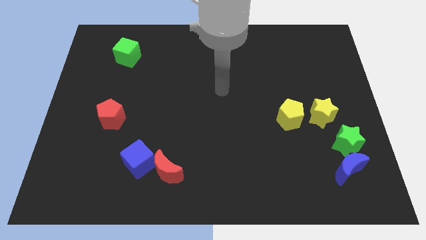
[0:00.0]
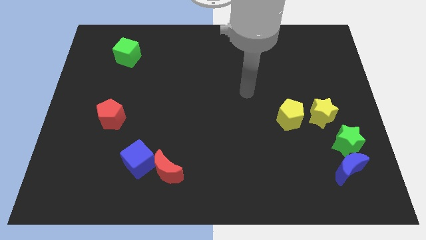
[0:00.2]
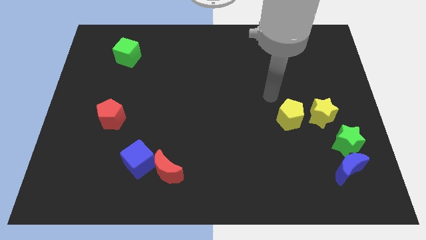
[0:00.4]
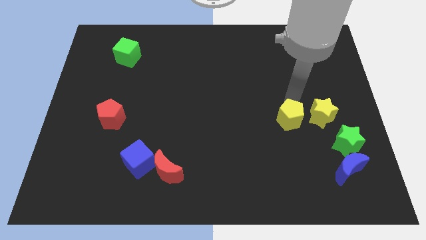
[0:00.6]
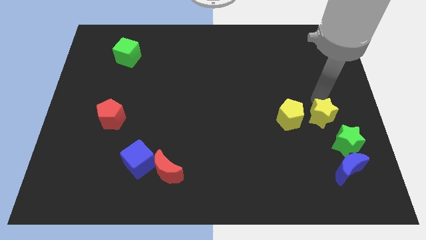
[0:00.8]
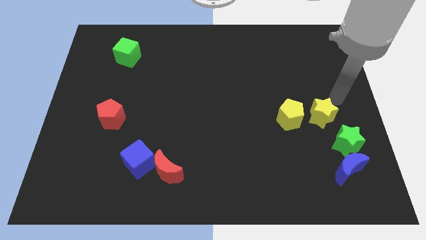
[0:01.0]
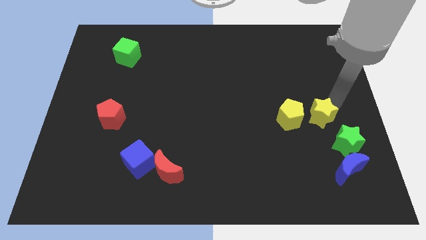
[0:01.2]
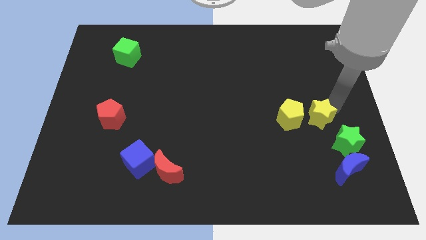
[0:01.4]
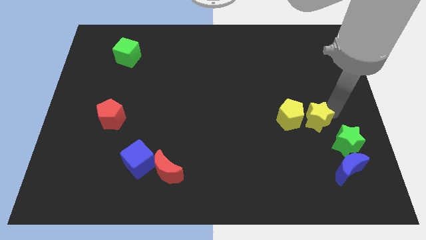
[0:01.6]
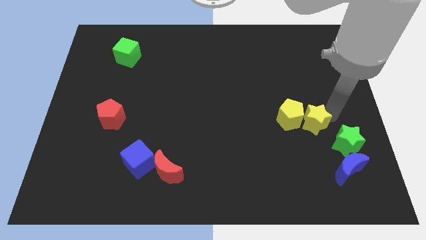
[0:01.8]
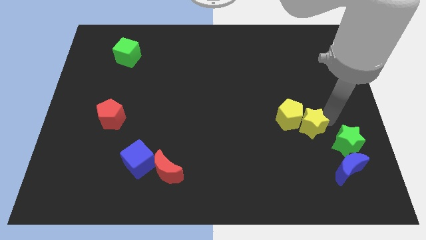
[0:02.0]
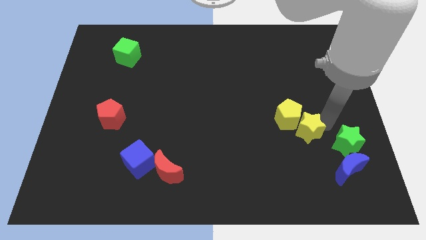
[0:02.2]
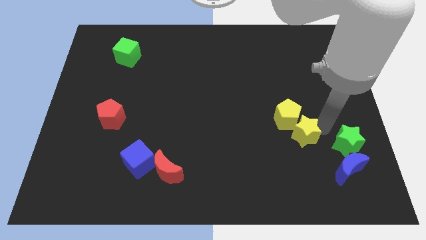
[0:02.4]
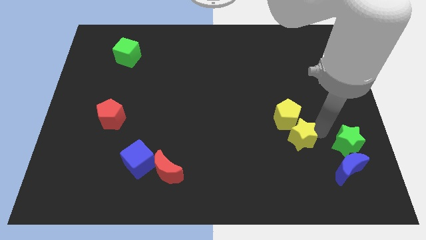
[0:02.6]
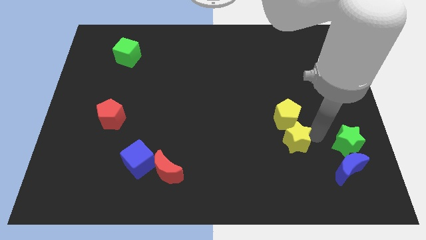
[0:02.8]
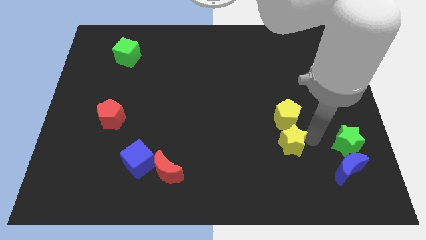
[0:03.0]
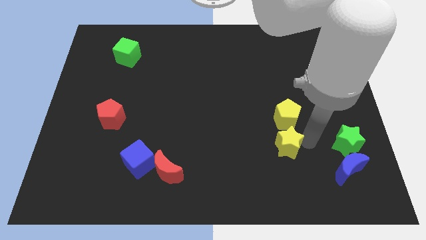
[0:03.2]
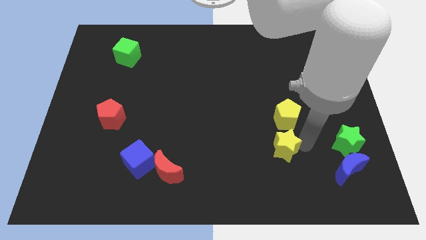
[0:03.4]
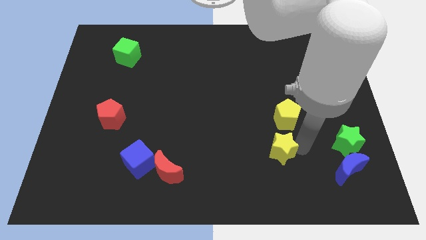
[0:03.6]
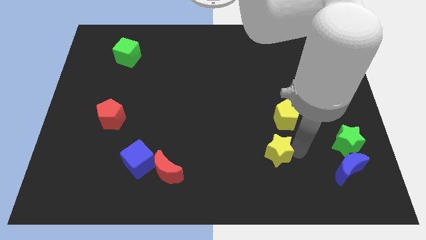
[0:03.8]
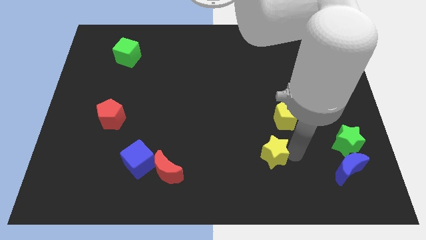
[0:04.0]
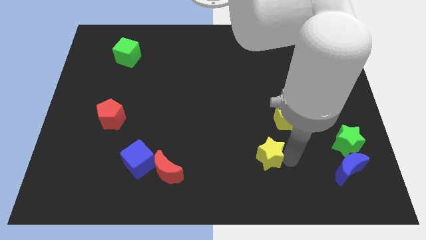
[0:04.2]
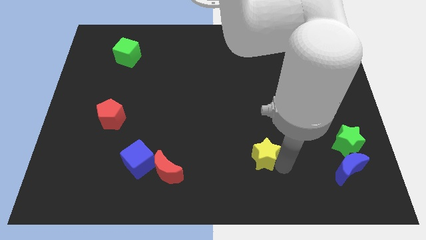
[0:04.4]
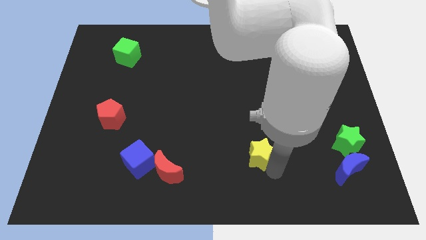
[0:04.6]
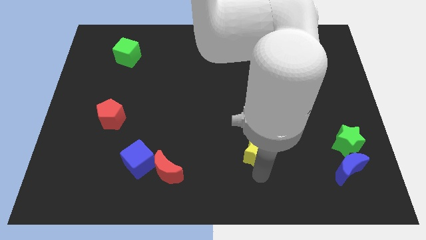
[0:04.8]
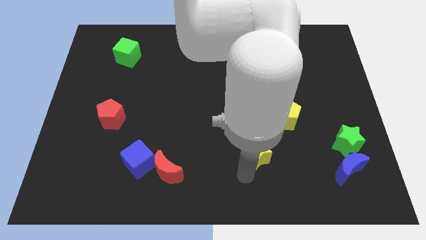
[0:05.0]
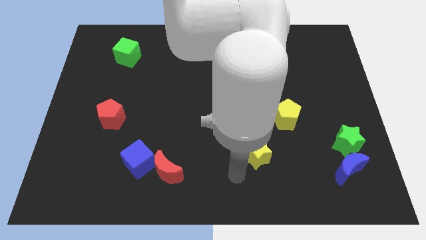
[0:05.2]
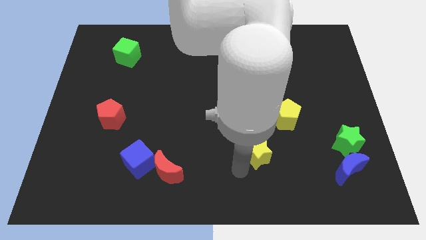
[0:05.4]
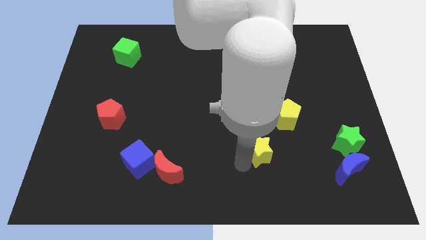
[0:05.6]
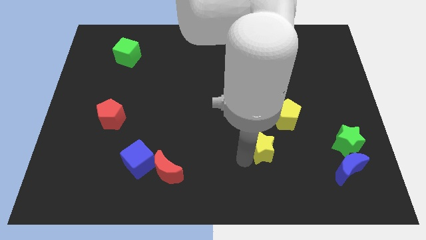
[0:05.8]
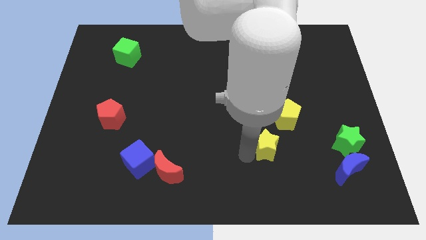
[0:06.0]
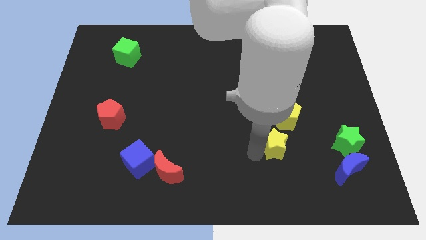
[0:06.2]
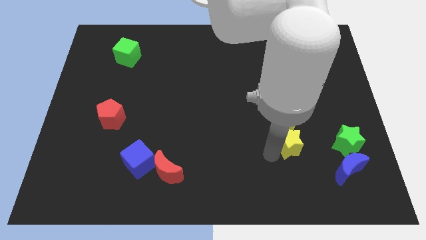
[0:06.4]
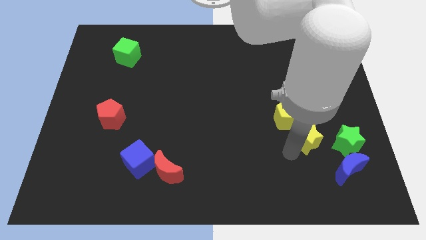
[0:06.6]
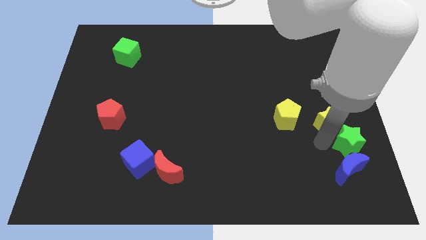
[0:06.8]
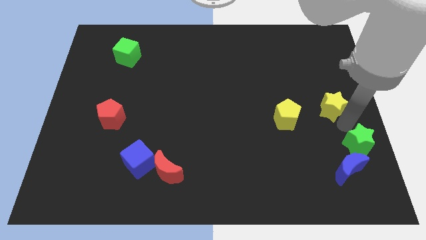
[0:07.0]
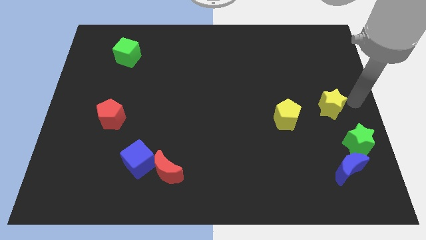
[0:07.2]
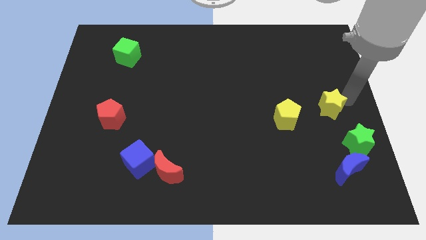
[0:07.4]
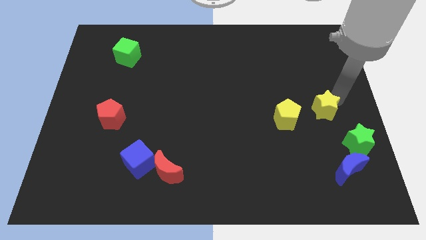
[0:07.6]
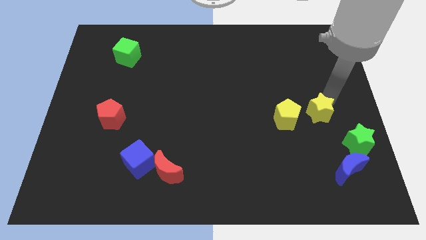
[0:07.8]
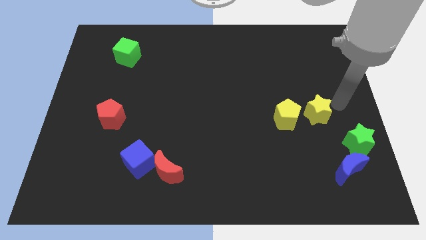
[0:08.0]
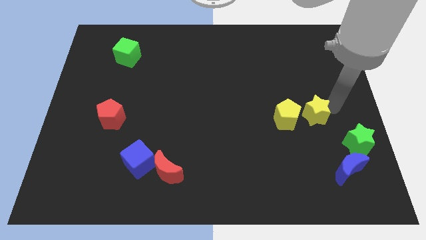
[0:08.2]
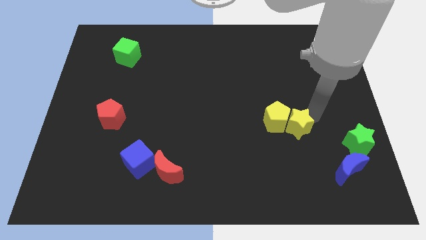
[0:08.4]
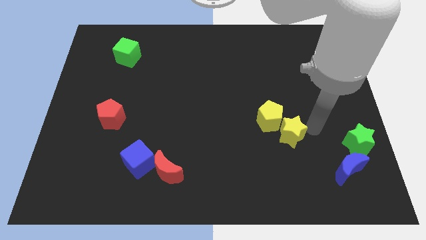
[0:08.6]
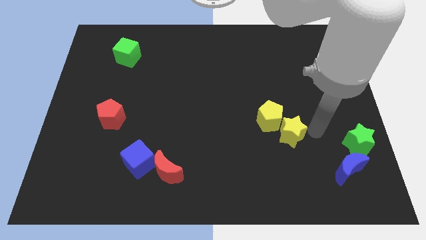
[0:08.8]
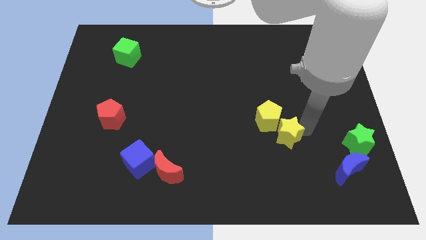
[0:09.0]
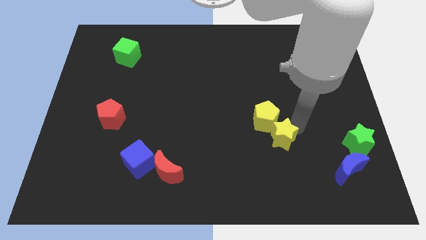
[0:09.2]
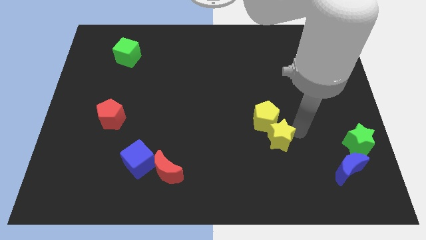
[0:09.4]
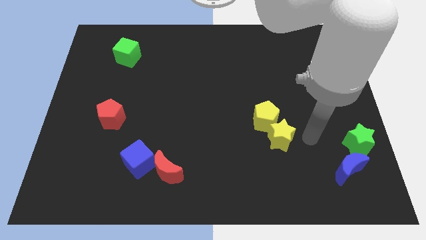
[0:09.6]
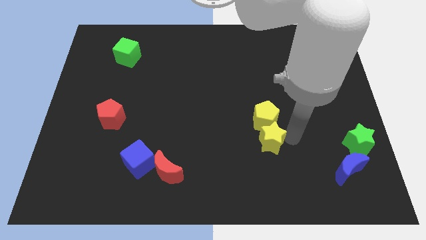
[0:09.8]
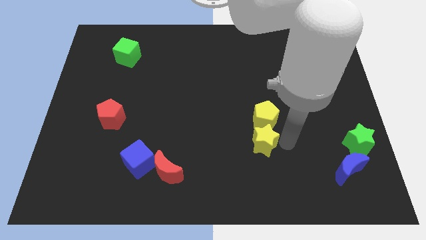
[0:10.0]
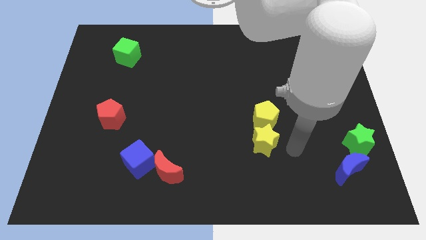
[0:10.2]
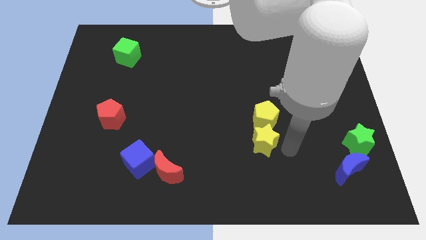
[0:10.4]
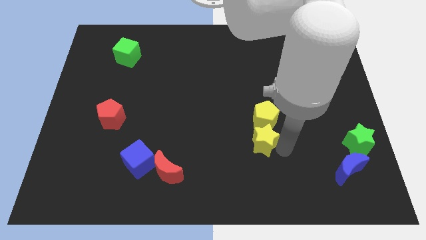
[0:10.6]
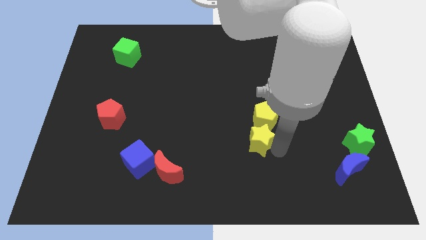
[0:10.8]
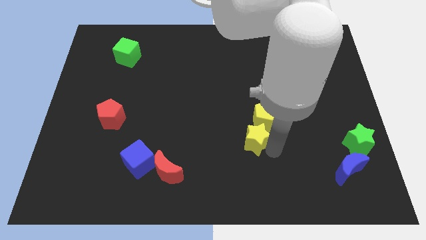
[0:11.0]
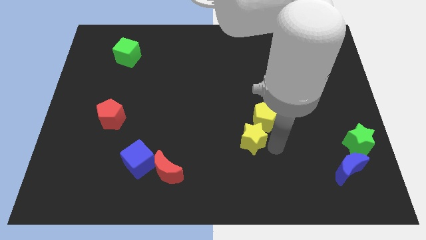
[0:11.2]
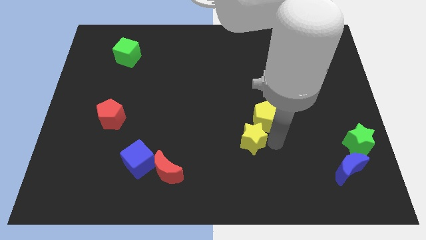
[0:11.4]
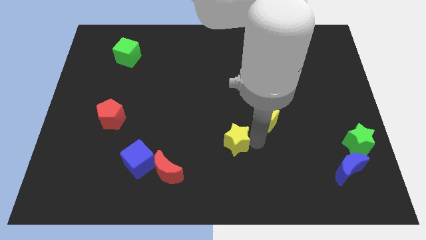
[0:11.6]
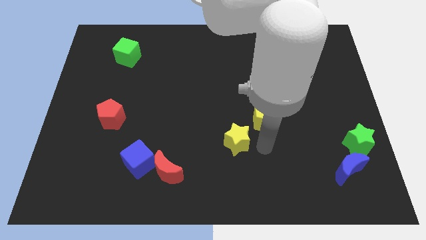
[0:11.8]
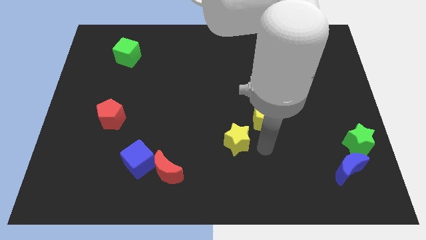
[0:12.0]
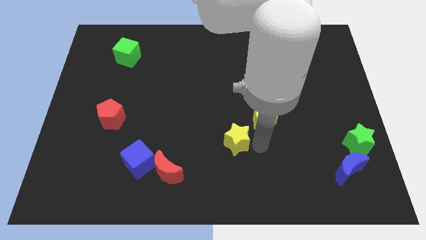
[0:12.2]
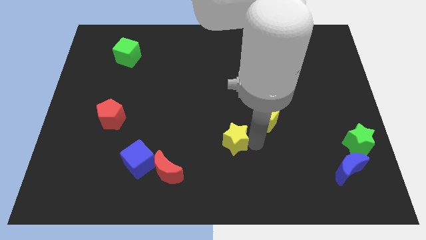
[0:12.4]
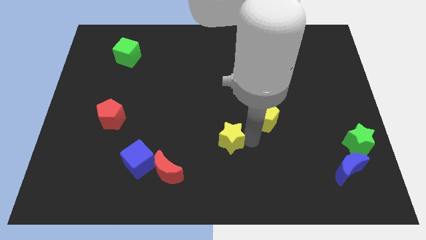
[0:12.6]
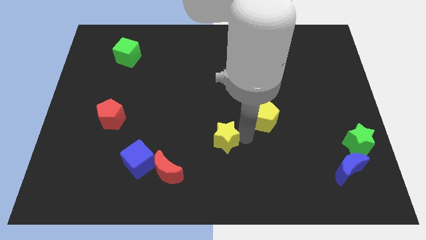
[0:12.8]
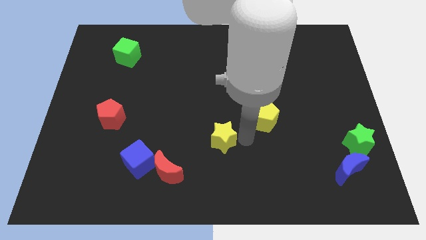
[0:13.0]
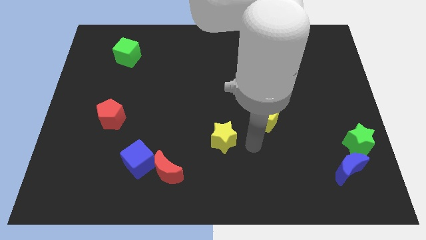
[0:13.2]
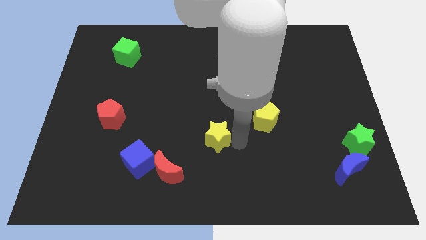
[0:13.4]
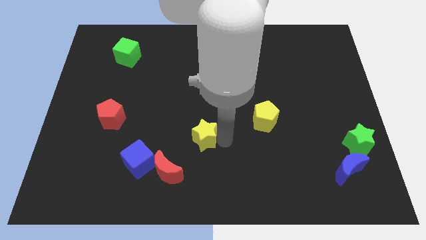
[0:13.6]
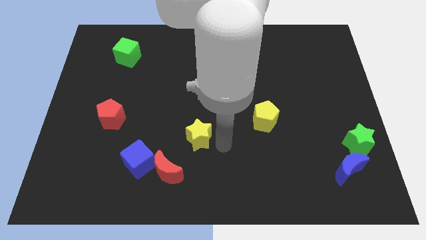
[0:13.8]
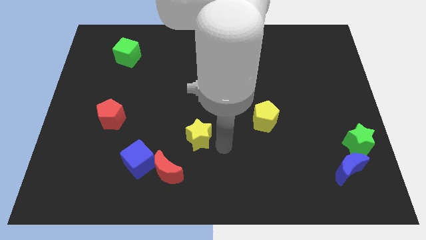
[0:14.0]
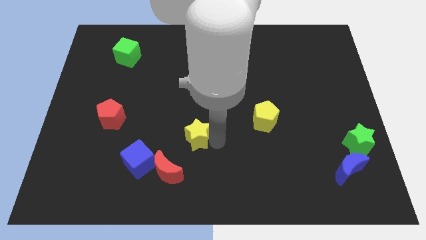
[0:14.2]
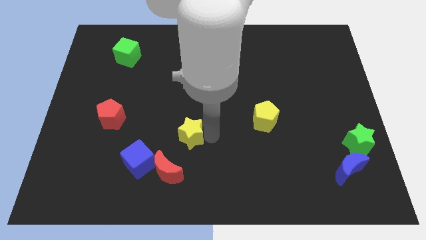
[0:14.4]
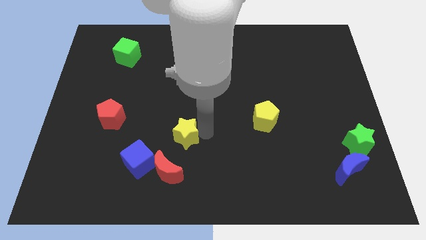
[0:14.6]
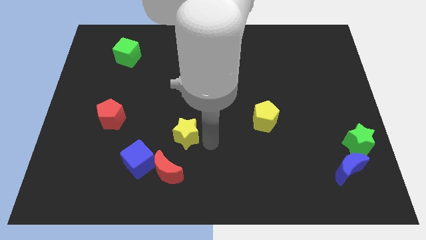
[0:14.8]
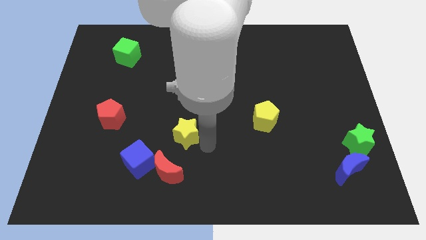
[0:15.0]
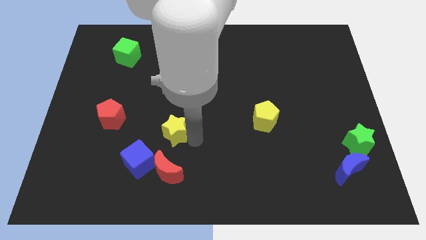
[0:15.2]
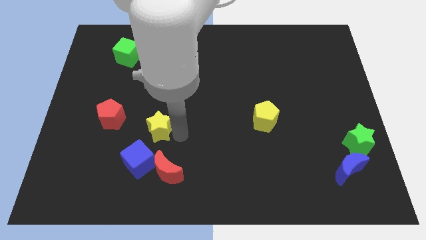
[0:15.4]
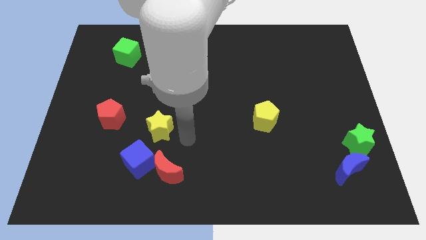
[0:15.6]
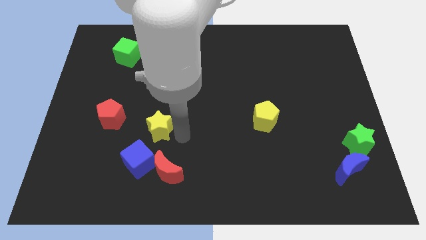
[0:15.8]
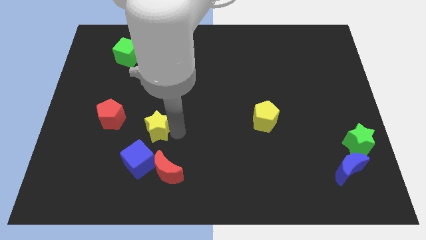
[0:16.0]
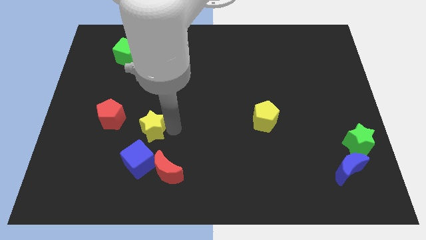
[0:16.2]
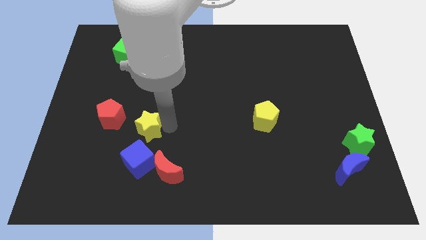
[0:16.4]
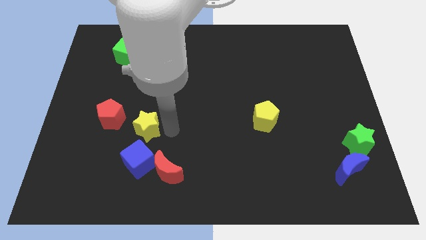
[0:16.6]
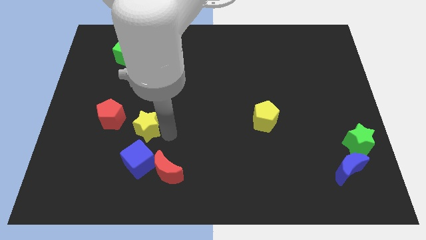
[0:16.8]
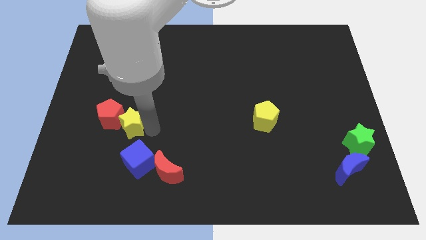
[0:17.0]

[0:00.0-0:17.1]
push the yellow star close to the red pentagon
